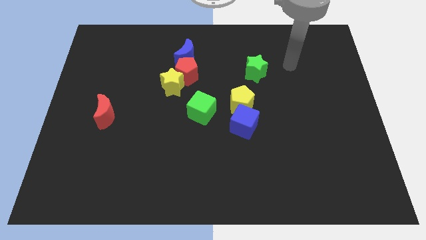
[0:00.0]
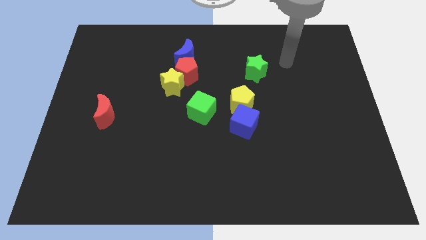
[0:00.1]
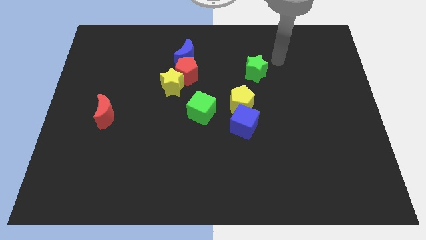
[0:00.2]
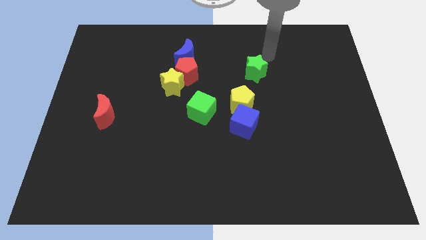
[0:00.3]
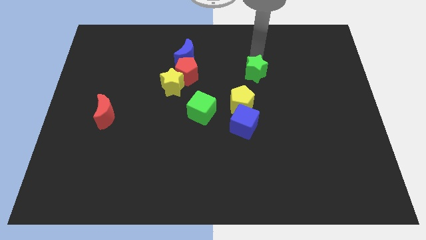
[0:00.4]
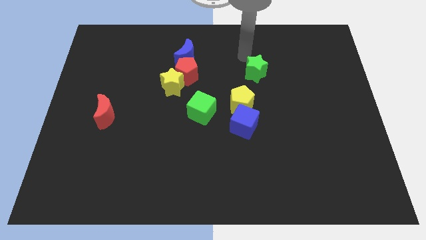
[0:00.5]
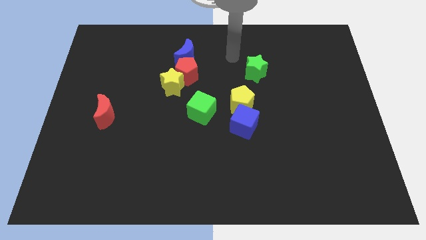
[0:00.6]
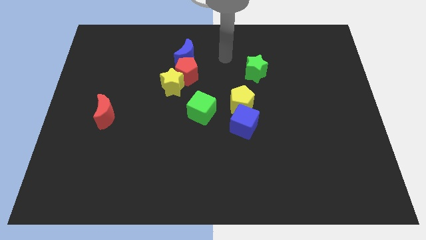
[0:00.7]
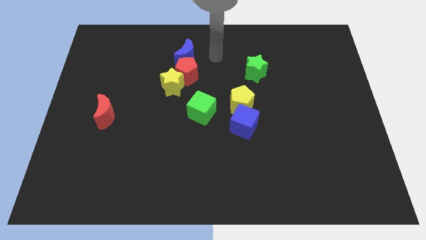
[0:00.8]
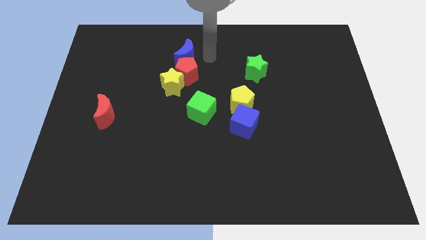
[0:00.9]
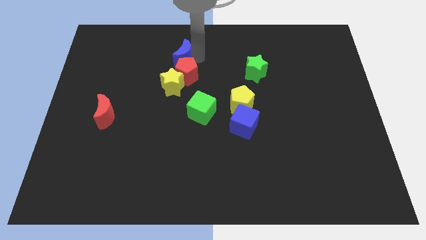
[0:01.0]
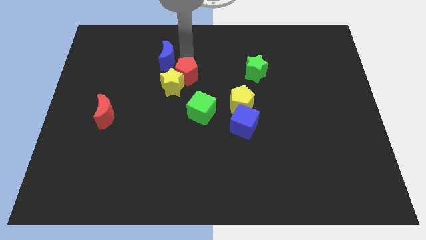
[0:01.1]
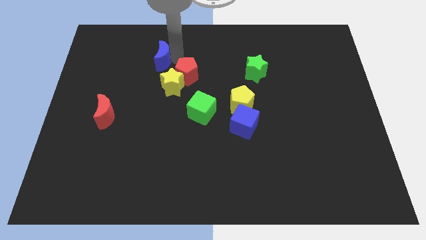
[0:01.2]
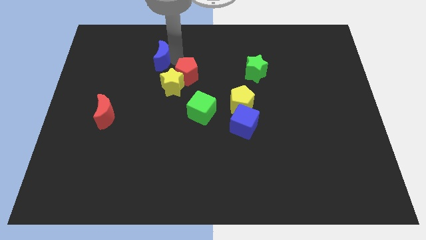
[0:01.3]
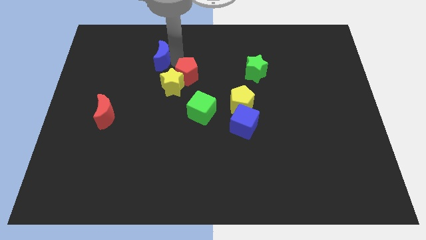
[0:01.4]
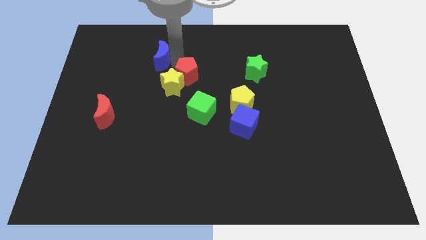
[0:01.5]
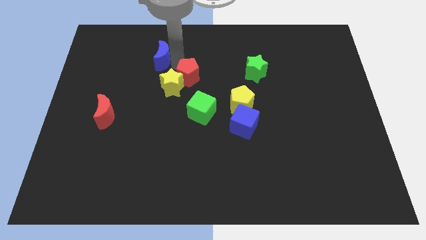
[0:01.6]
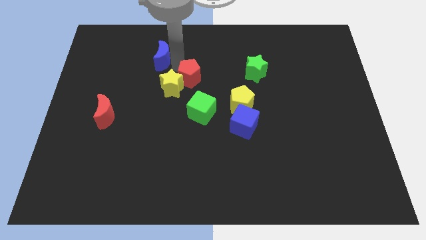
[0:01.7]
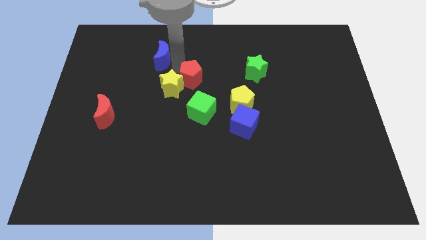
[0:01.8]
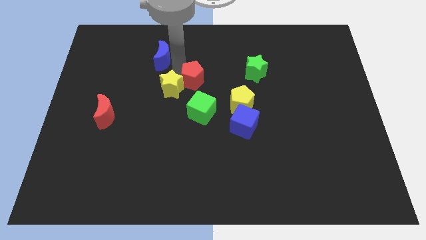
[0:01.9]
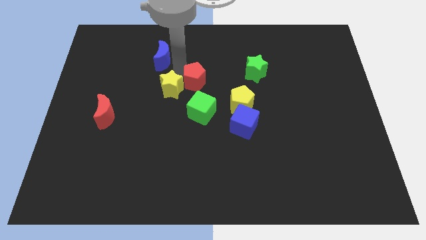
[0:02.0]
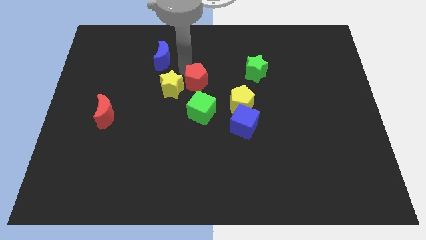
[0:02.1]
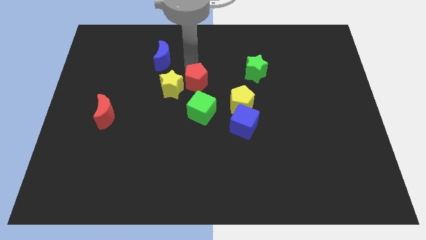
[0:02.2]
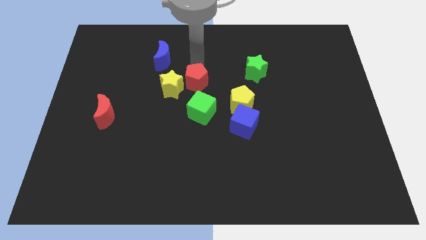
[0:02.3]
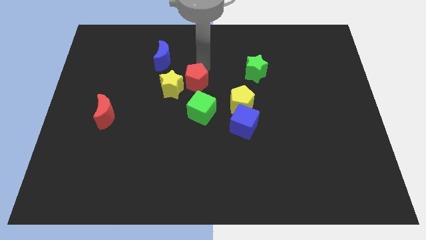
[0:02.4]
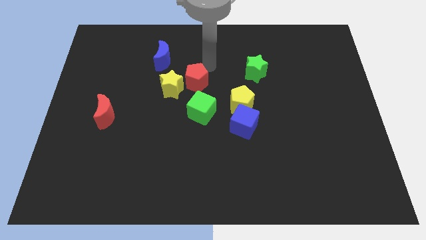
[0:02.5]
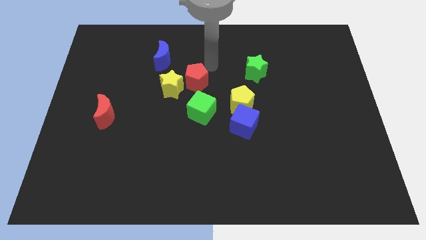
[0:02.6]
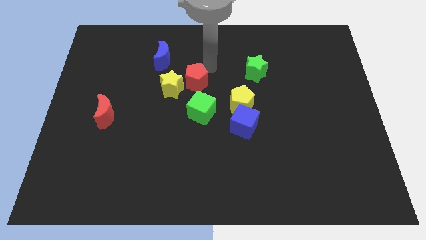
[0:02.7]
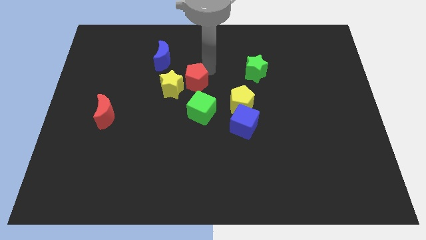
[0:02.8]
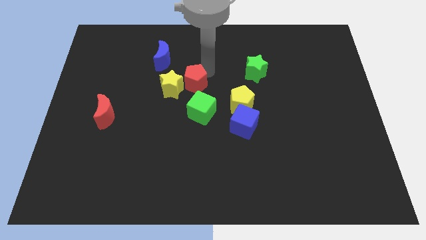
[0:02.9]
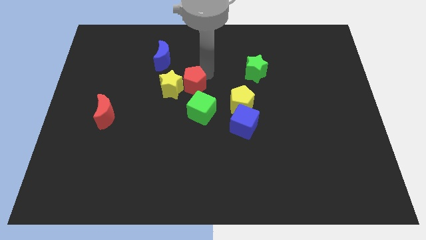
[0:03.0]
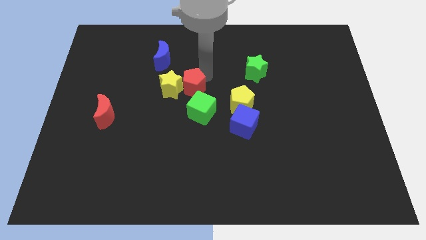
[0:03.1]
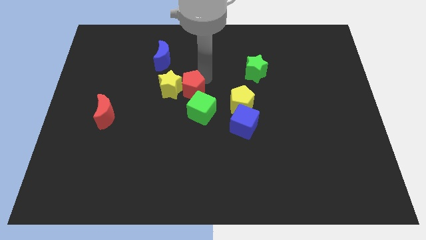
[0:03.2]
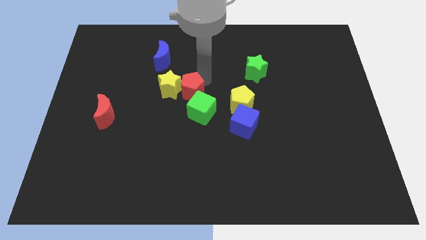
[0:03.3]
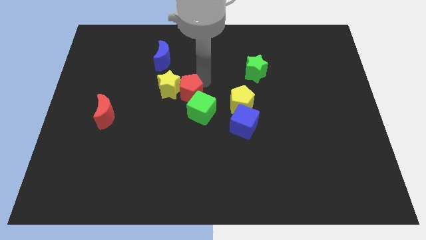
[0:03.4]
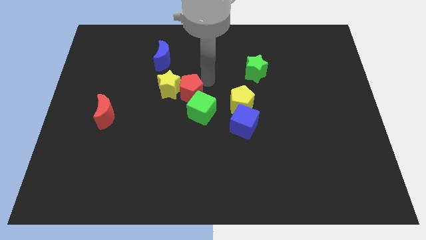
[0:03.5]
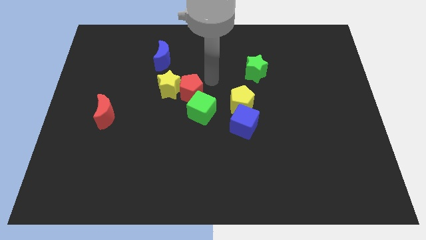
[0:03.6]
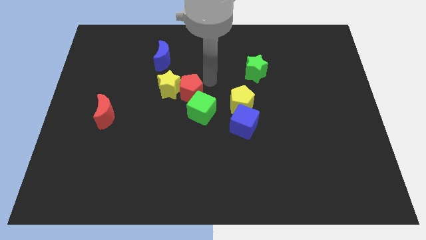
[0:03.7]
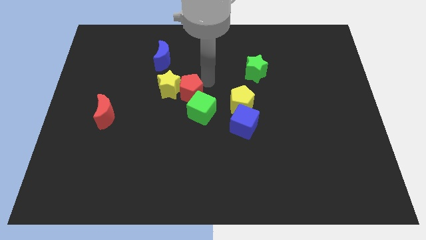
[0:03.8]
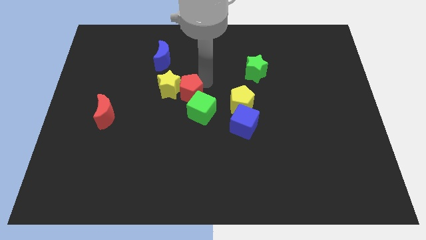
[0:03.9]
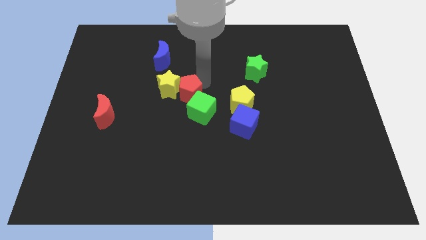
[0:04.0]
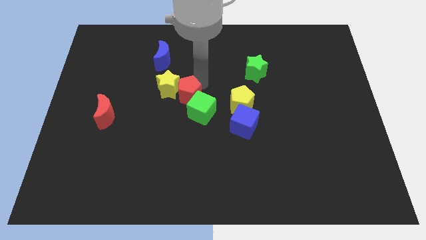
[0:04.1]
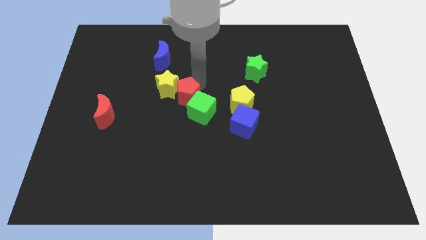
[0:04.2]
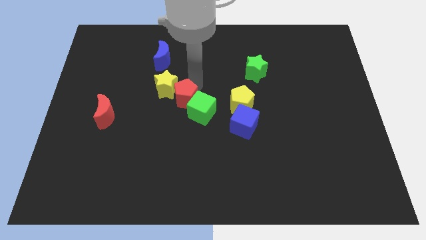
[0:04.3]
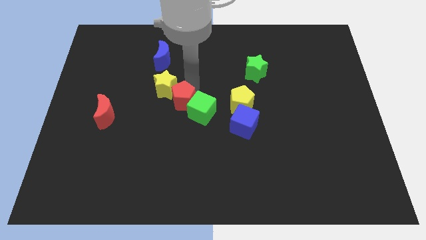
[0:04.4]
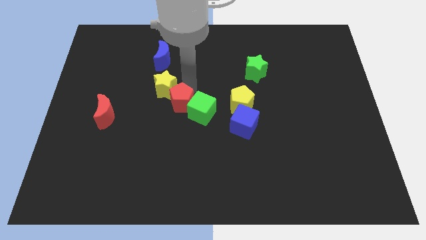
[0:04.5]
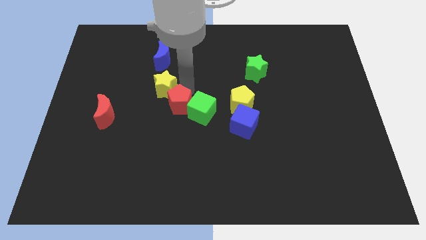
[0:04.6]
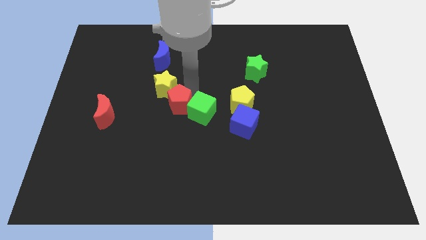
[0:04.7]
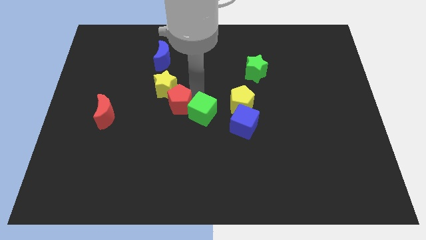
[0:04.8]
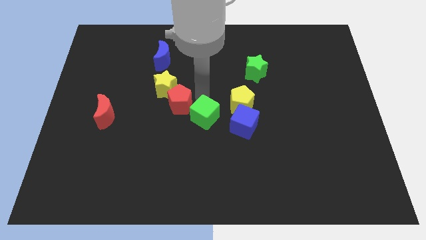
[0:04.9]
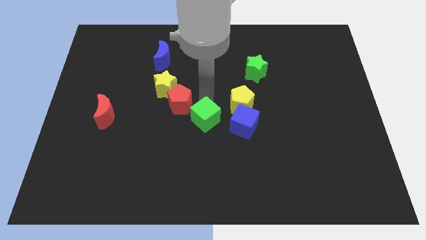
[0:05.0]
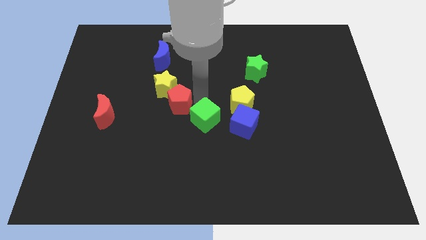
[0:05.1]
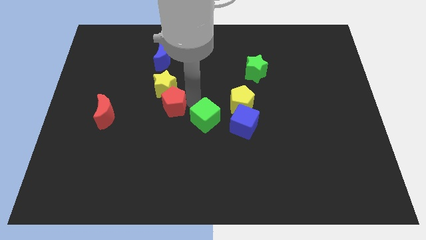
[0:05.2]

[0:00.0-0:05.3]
push the red pentagon a little downwards and to the left diagonally

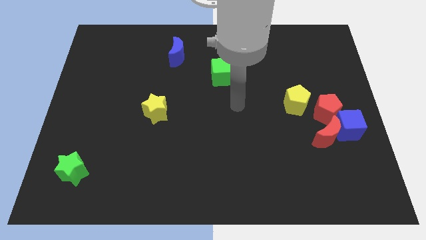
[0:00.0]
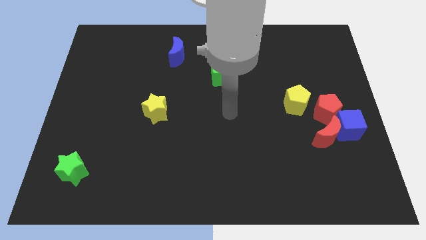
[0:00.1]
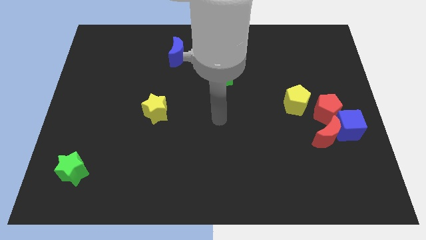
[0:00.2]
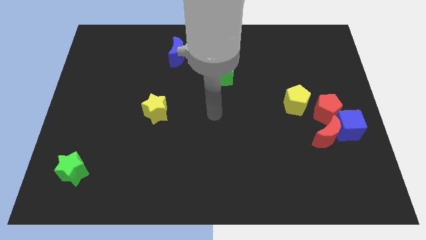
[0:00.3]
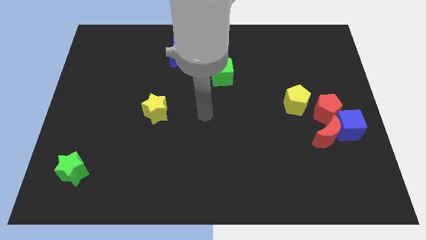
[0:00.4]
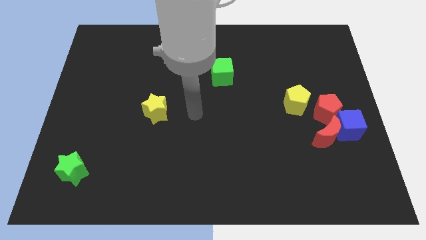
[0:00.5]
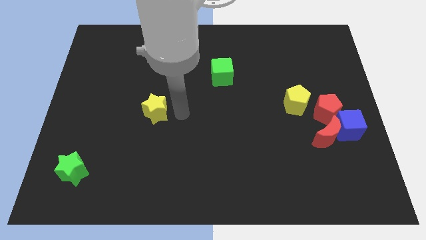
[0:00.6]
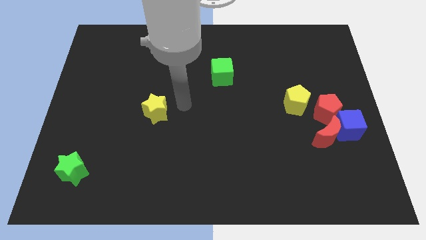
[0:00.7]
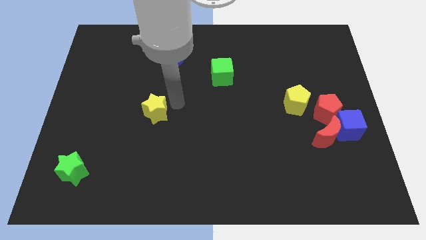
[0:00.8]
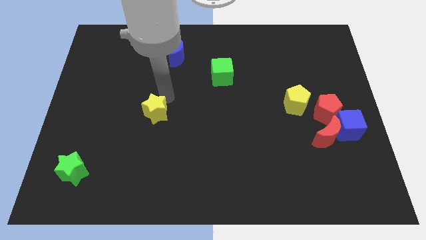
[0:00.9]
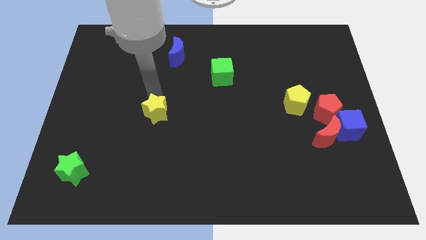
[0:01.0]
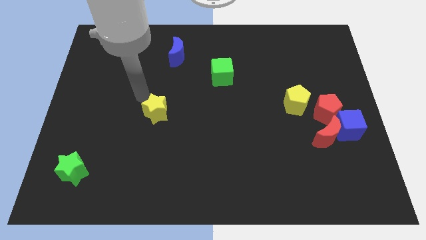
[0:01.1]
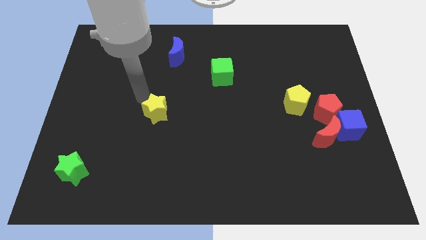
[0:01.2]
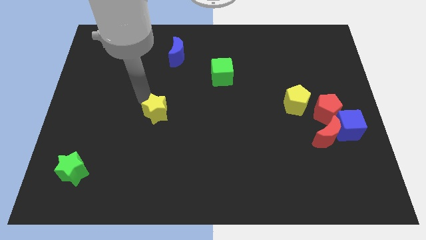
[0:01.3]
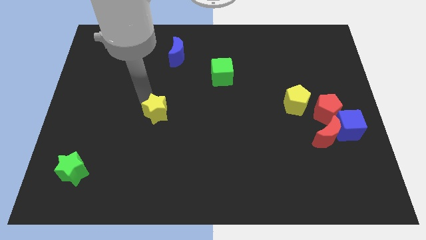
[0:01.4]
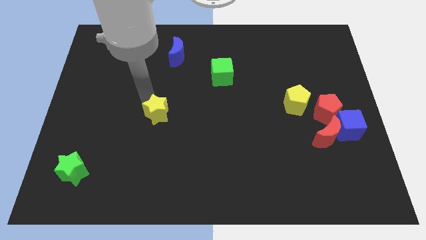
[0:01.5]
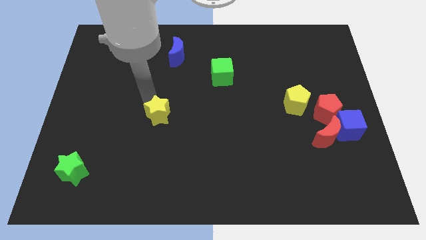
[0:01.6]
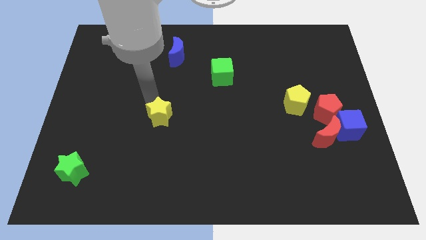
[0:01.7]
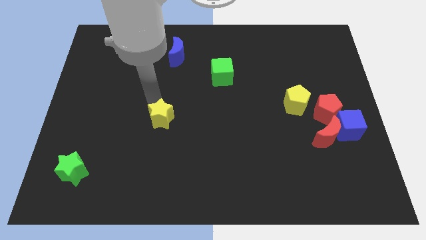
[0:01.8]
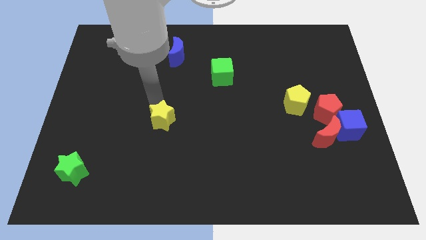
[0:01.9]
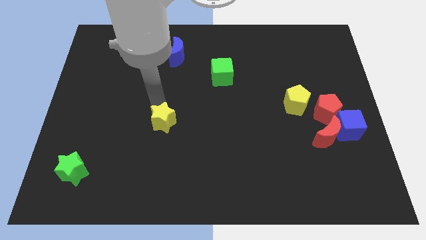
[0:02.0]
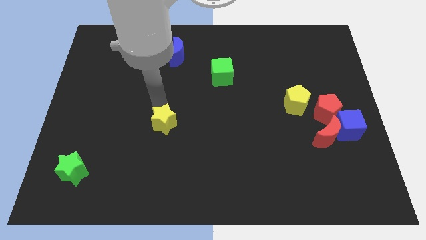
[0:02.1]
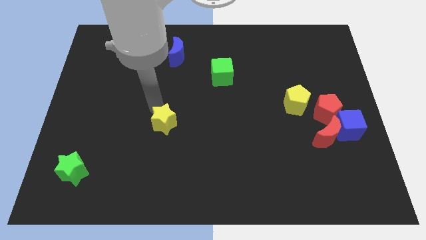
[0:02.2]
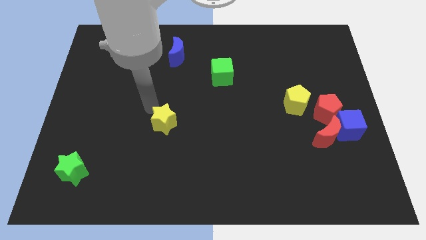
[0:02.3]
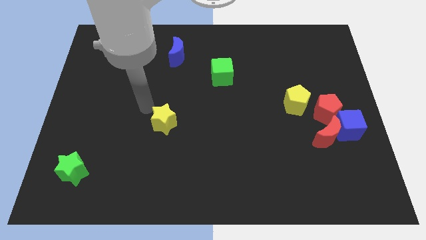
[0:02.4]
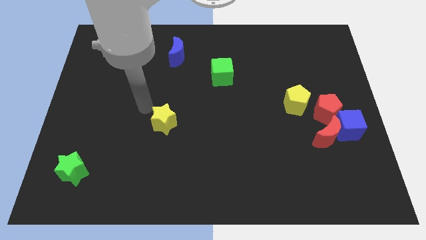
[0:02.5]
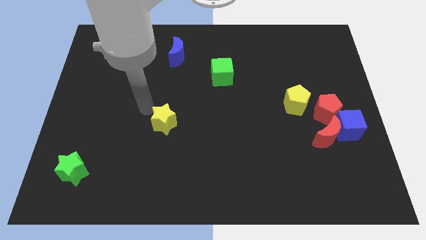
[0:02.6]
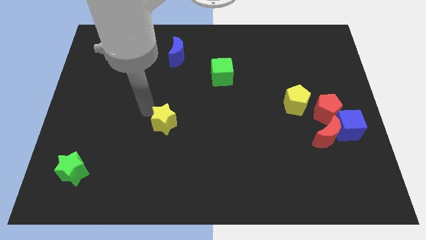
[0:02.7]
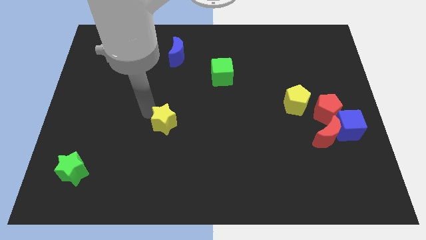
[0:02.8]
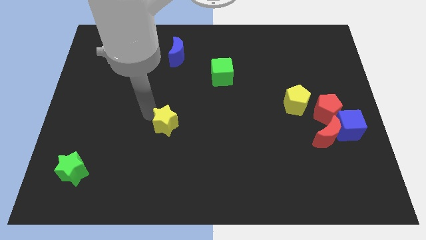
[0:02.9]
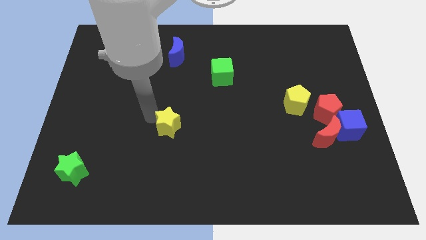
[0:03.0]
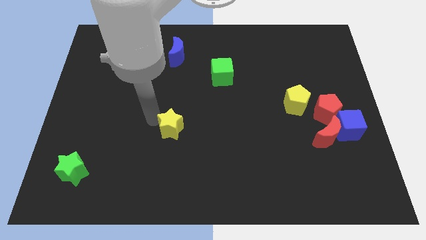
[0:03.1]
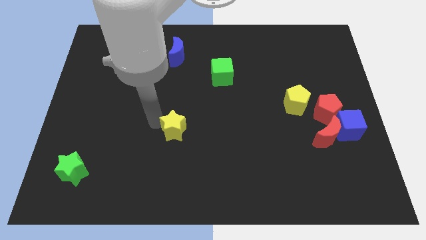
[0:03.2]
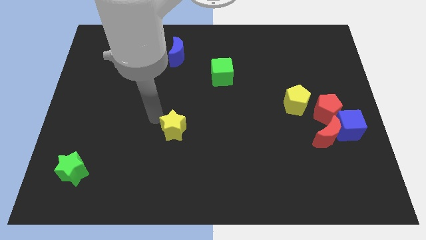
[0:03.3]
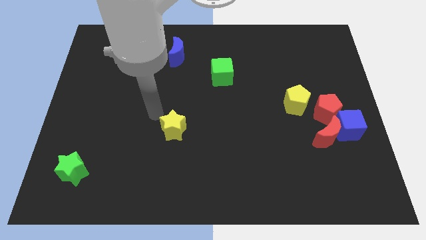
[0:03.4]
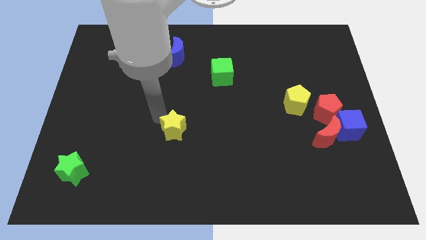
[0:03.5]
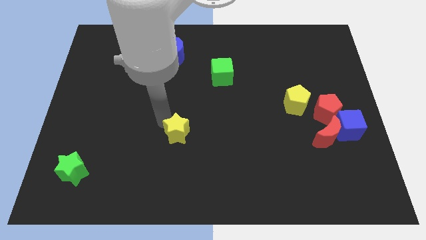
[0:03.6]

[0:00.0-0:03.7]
slightly move the yellow star downwards and then to the right
